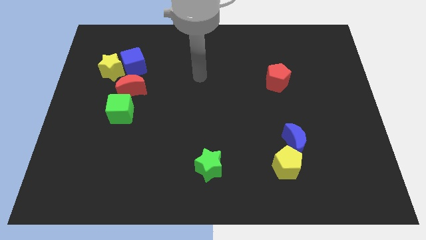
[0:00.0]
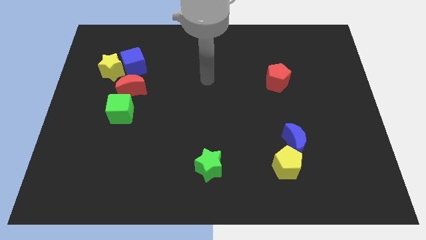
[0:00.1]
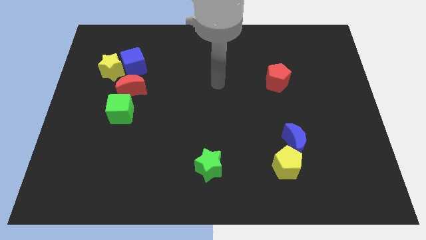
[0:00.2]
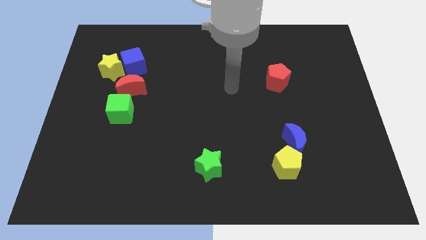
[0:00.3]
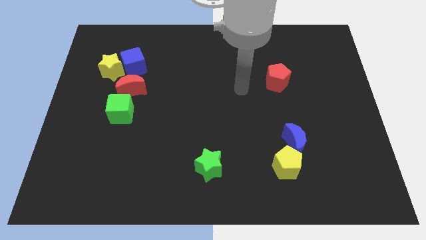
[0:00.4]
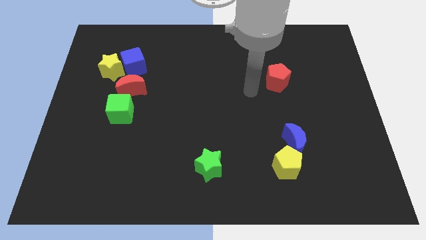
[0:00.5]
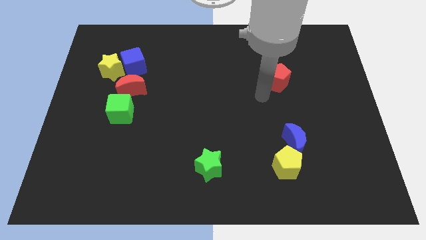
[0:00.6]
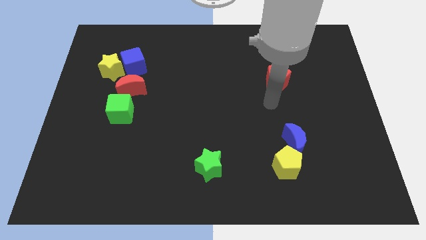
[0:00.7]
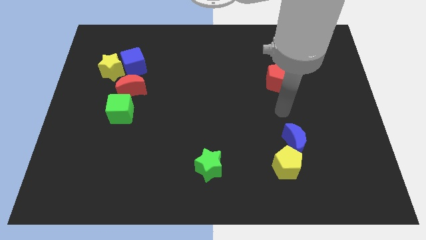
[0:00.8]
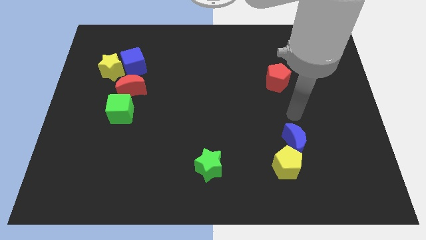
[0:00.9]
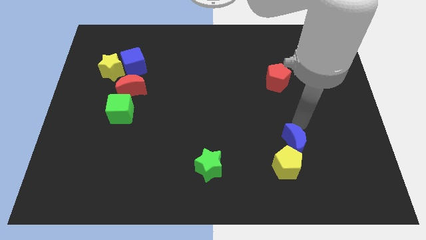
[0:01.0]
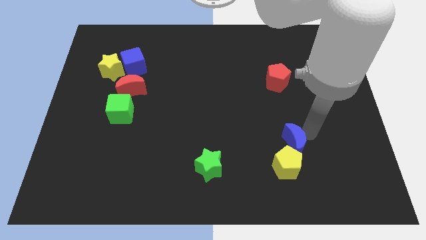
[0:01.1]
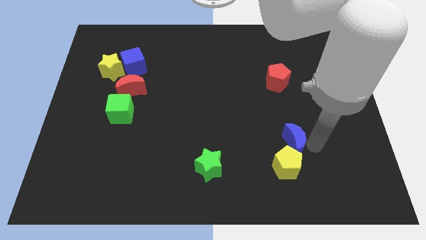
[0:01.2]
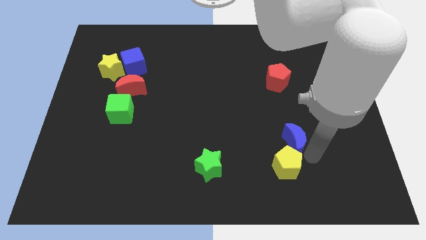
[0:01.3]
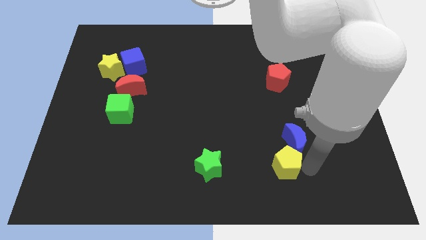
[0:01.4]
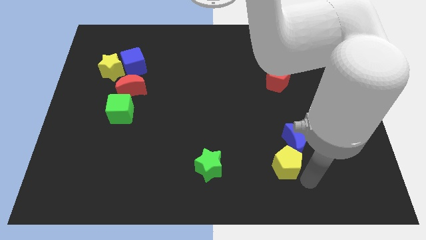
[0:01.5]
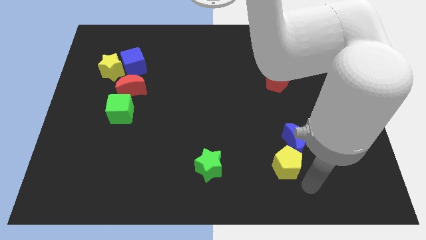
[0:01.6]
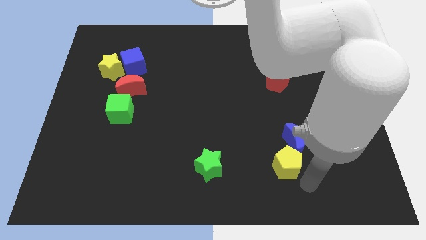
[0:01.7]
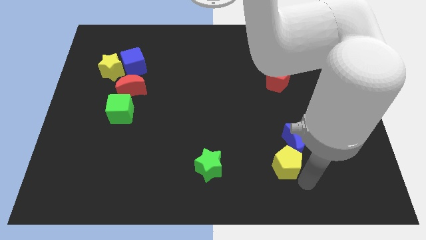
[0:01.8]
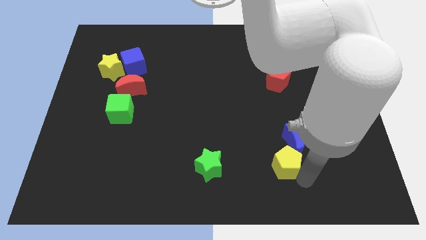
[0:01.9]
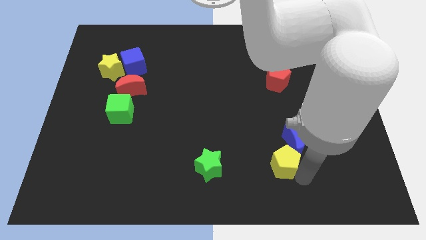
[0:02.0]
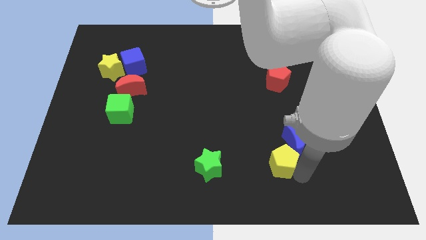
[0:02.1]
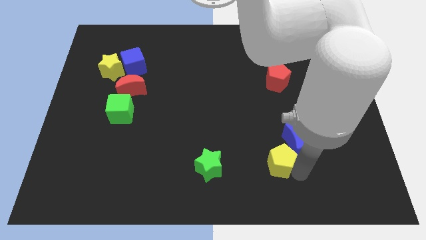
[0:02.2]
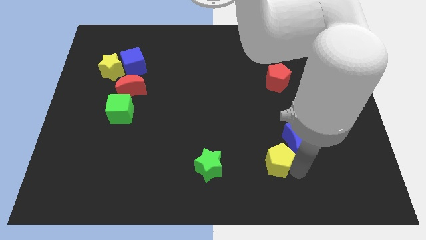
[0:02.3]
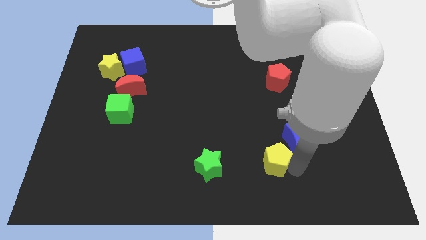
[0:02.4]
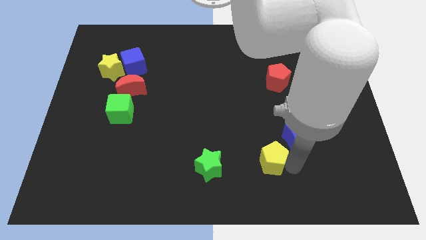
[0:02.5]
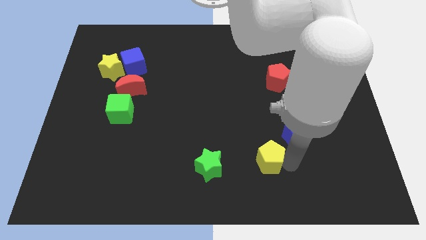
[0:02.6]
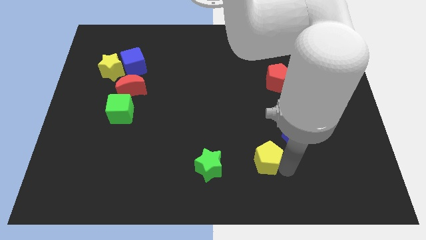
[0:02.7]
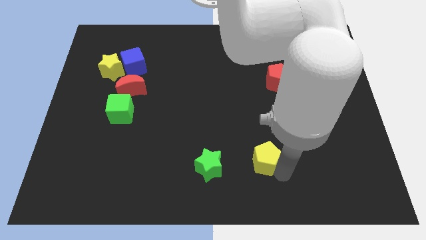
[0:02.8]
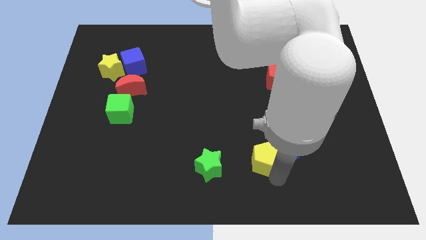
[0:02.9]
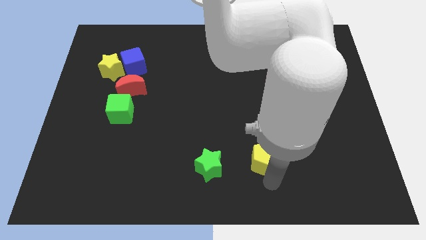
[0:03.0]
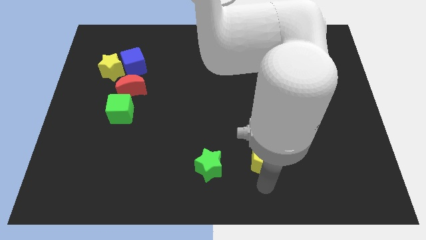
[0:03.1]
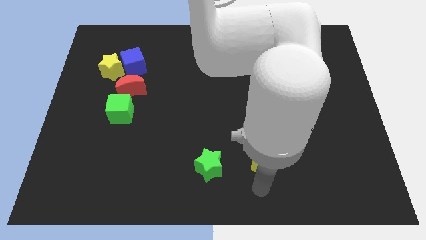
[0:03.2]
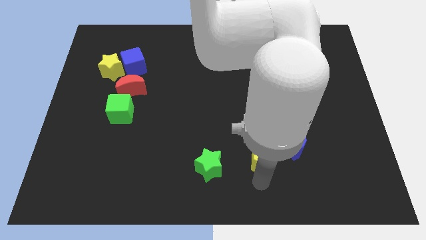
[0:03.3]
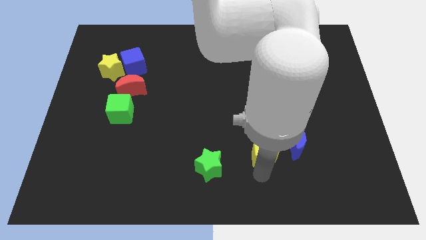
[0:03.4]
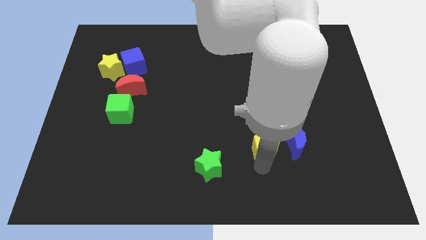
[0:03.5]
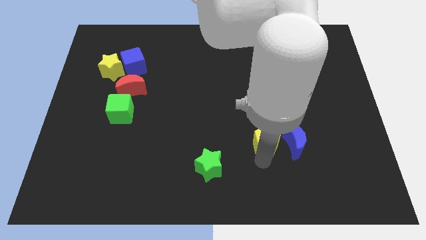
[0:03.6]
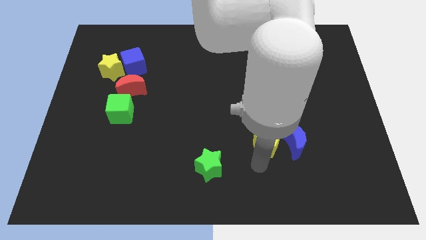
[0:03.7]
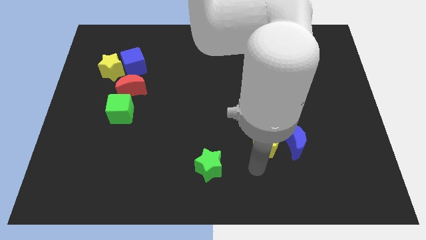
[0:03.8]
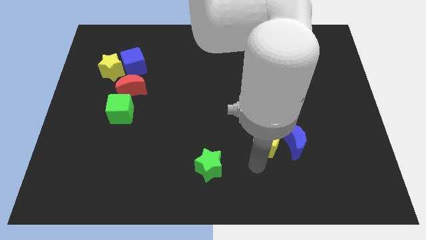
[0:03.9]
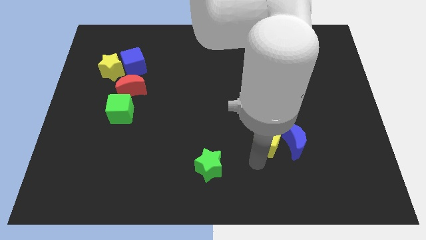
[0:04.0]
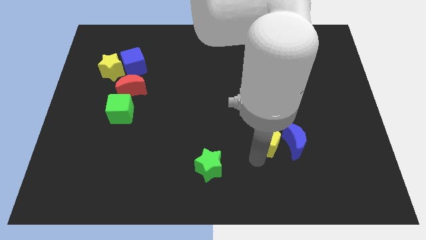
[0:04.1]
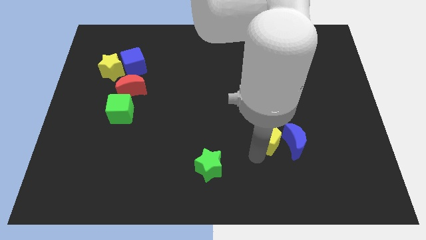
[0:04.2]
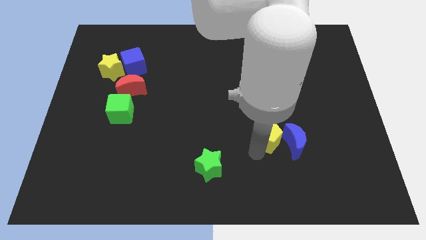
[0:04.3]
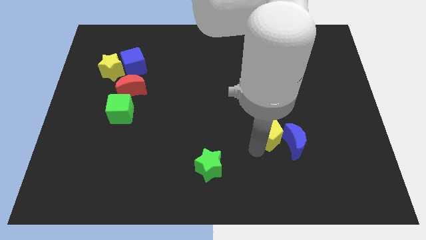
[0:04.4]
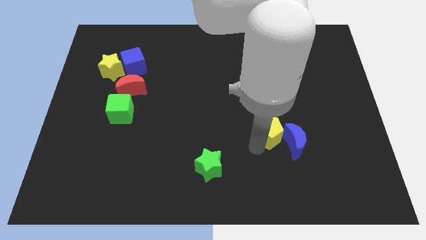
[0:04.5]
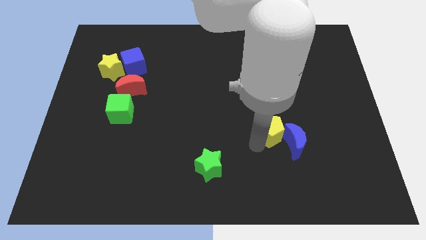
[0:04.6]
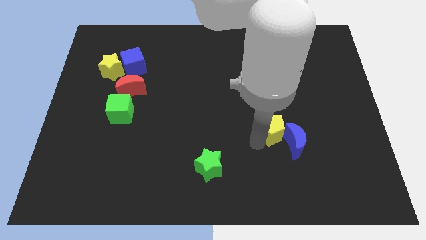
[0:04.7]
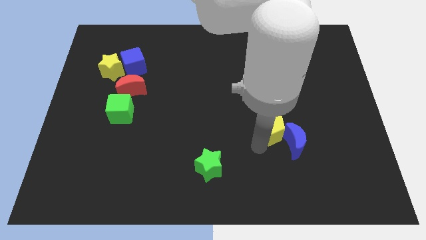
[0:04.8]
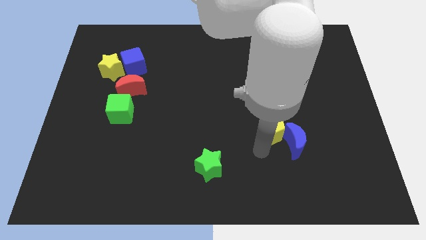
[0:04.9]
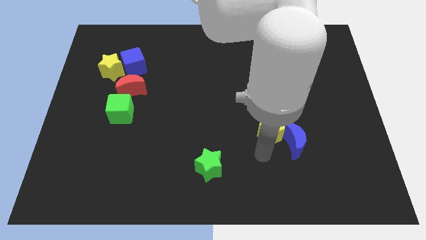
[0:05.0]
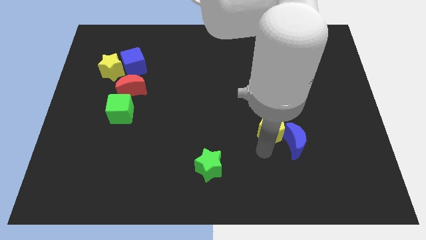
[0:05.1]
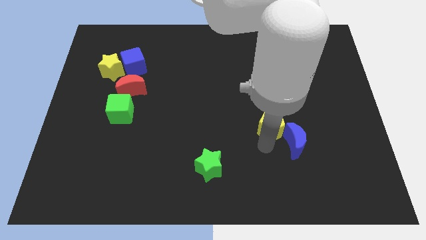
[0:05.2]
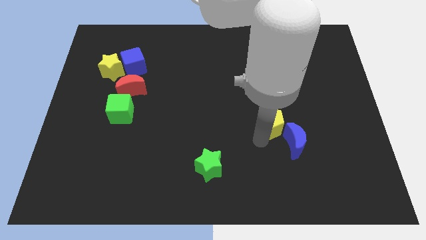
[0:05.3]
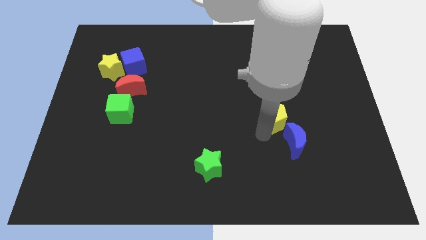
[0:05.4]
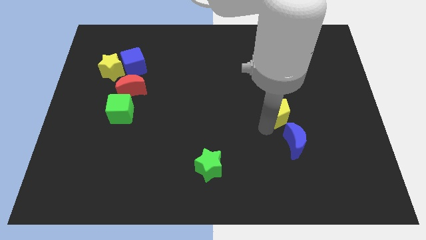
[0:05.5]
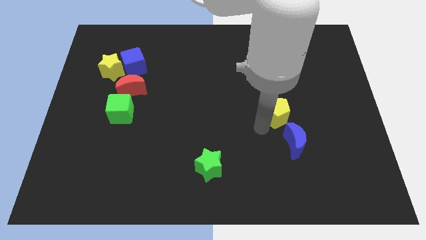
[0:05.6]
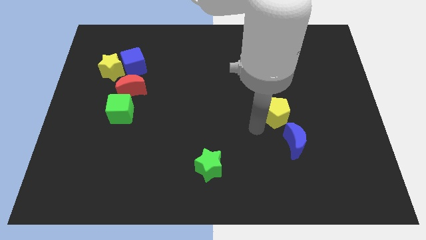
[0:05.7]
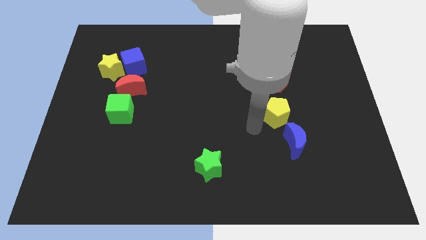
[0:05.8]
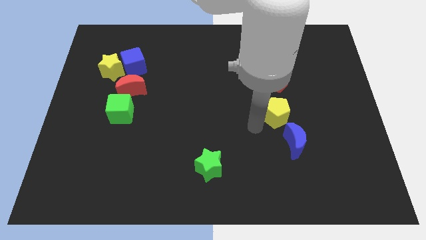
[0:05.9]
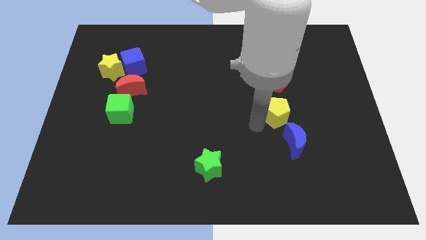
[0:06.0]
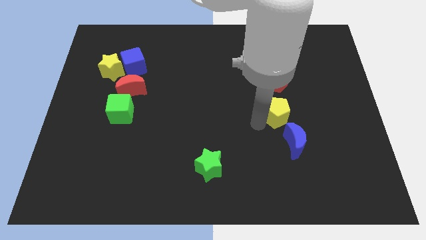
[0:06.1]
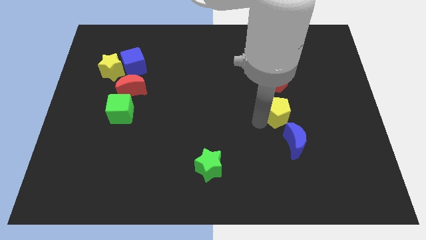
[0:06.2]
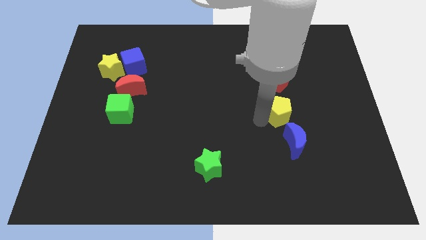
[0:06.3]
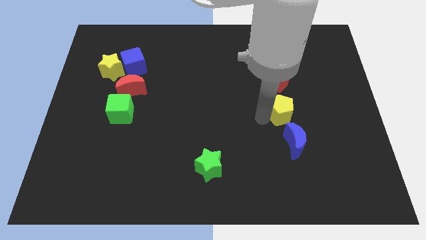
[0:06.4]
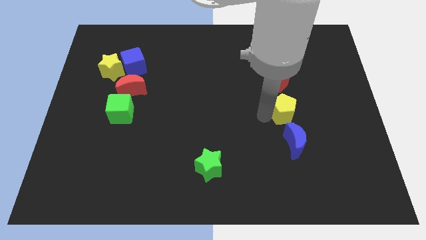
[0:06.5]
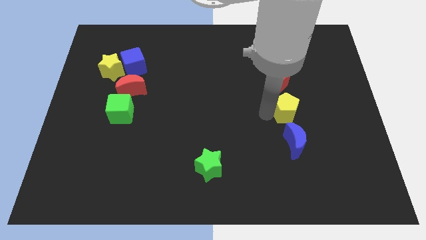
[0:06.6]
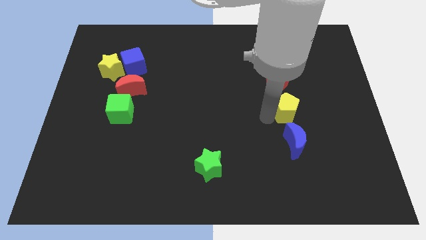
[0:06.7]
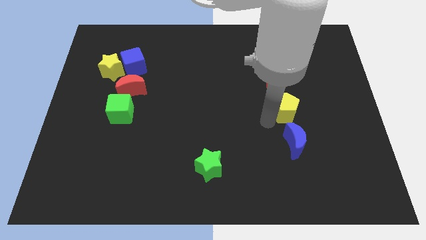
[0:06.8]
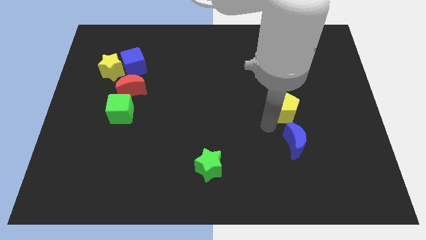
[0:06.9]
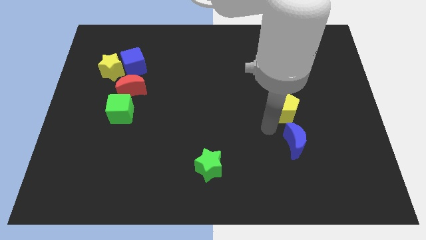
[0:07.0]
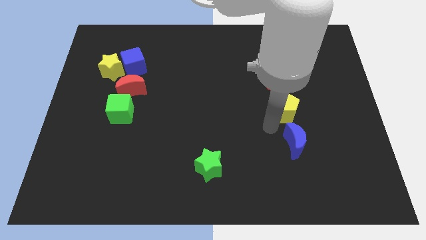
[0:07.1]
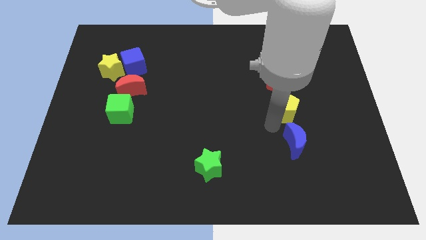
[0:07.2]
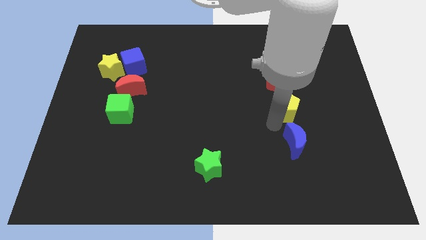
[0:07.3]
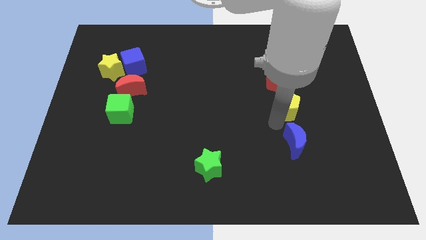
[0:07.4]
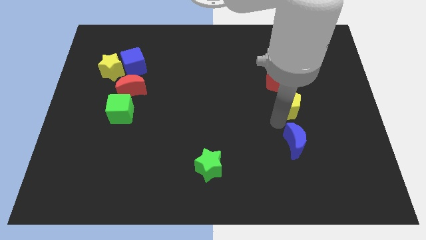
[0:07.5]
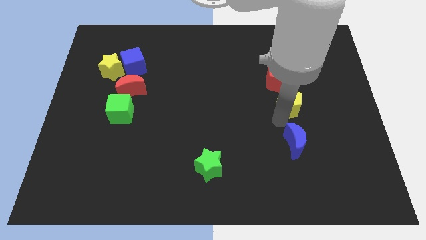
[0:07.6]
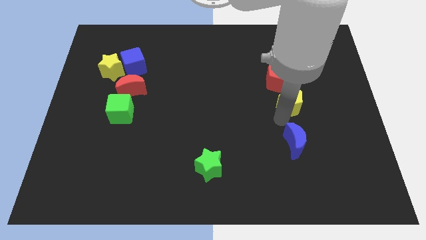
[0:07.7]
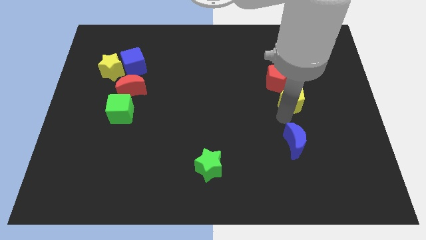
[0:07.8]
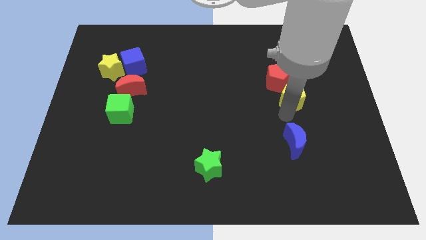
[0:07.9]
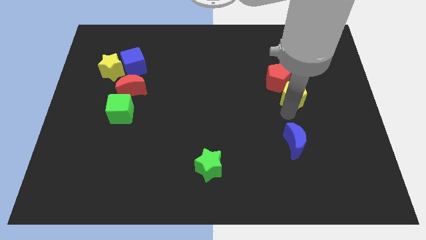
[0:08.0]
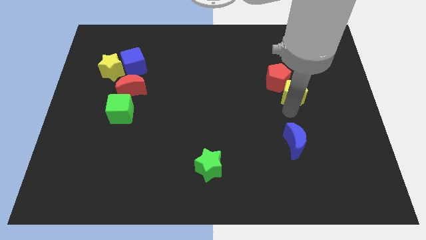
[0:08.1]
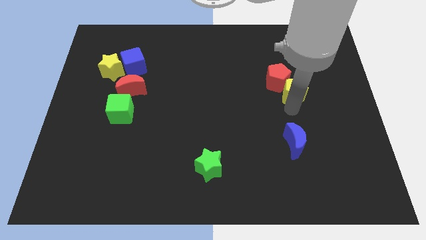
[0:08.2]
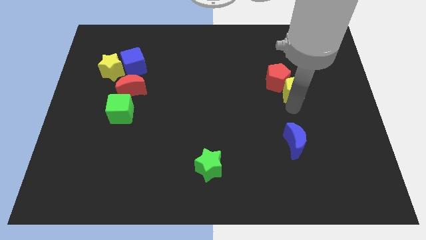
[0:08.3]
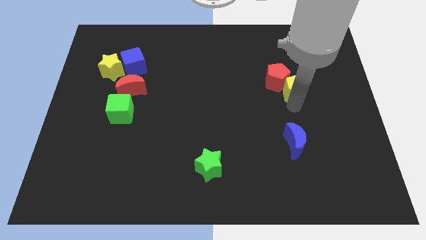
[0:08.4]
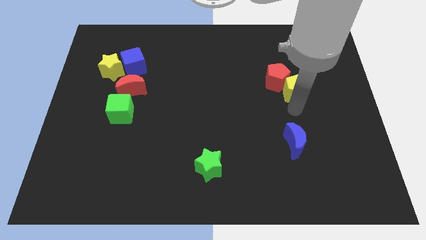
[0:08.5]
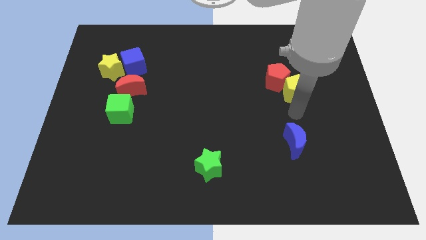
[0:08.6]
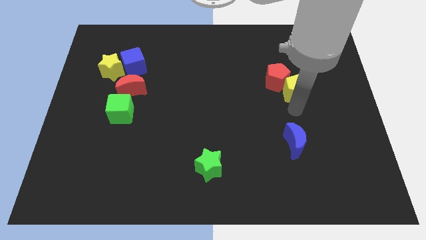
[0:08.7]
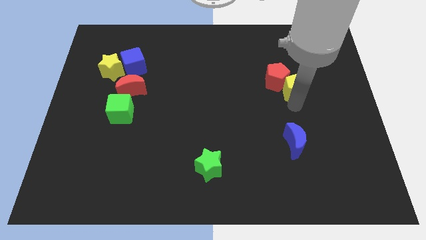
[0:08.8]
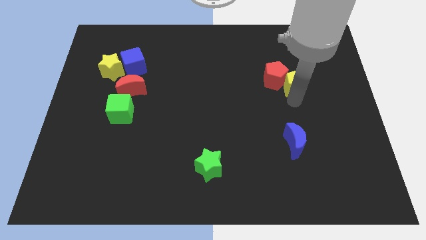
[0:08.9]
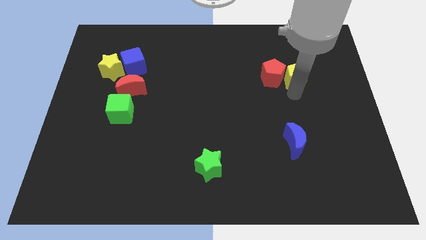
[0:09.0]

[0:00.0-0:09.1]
slide the yellow pentagon to the top right of the red pentagon
